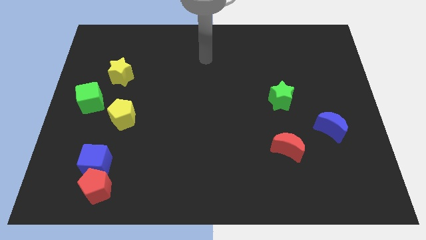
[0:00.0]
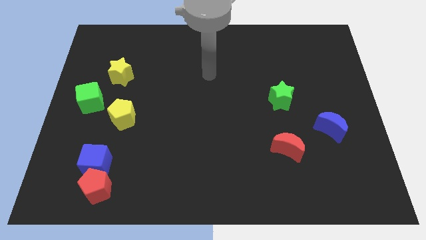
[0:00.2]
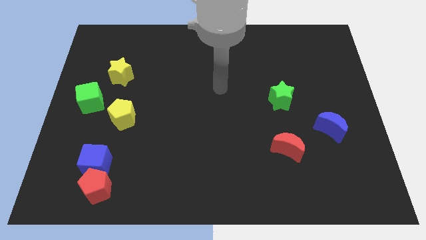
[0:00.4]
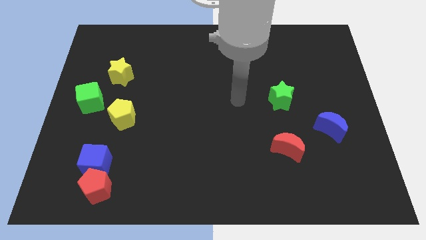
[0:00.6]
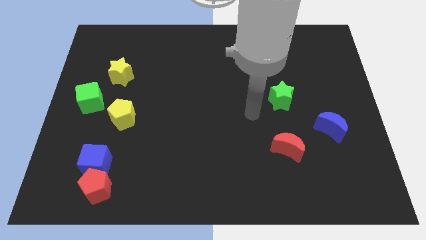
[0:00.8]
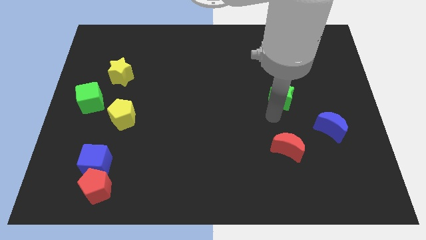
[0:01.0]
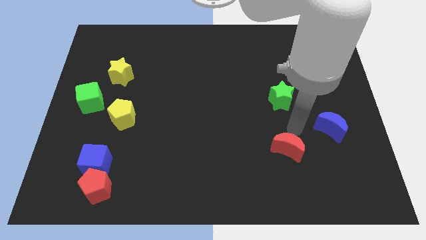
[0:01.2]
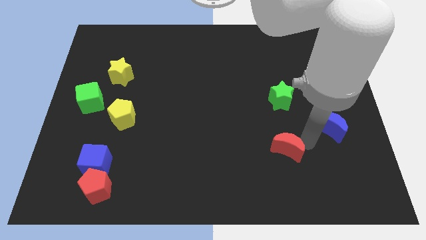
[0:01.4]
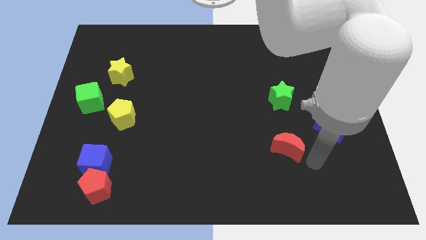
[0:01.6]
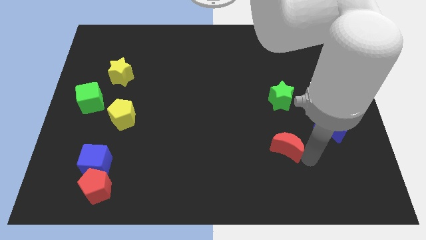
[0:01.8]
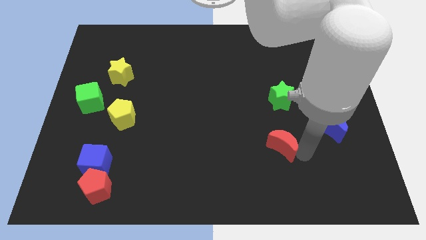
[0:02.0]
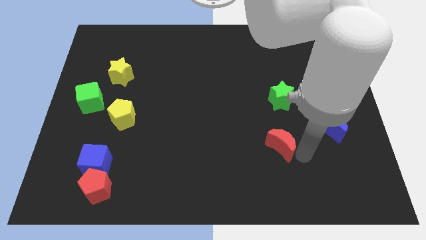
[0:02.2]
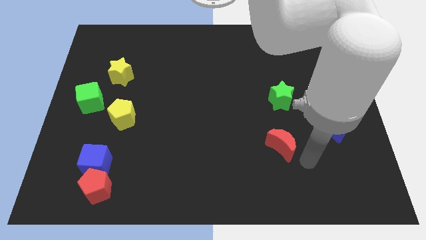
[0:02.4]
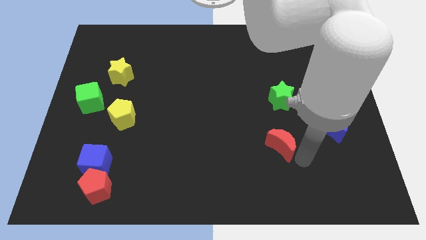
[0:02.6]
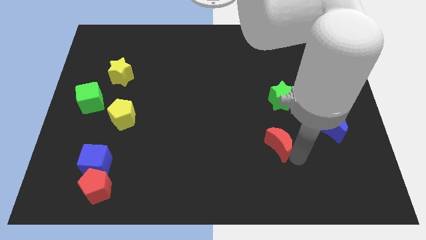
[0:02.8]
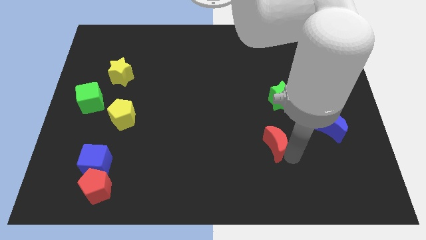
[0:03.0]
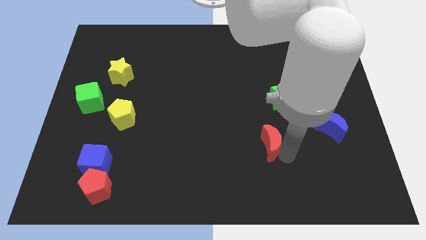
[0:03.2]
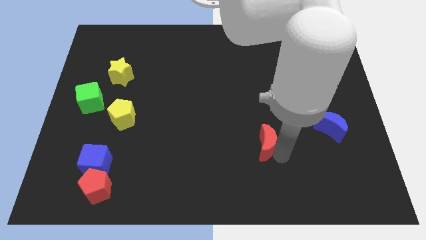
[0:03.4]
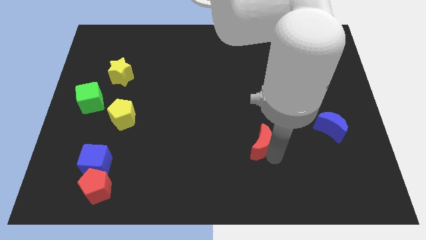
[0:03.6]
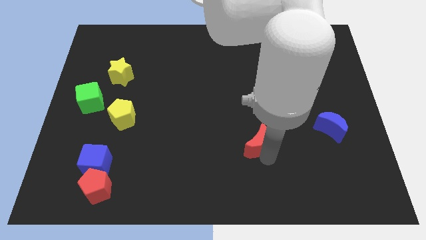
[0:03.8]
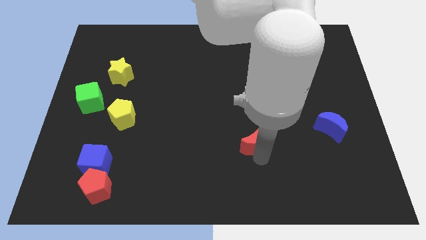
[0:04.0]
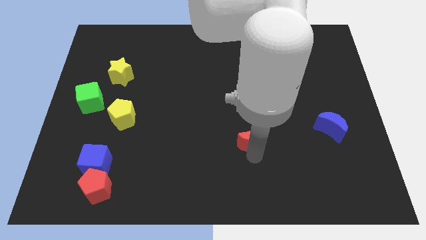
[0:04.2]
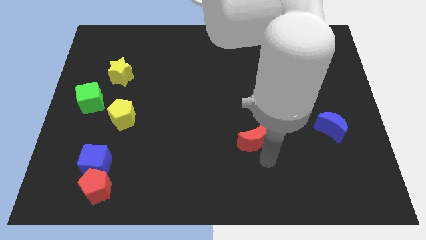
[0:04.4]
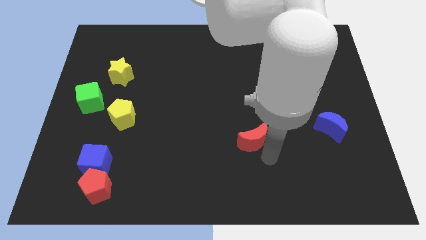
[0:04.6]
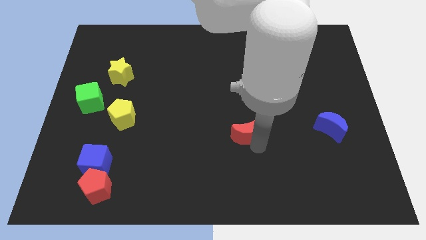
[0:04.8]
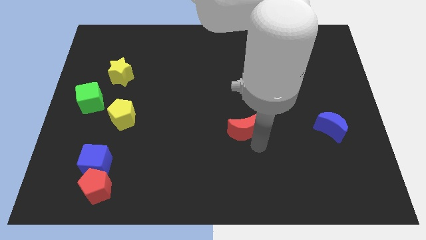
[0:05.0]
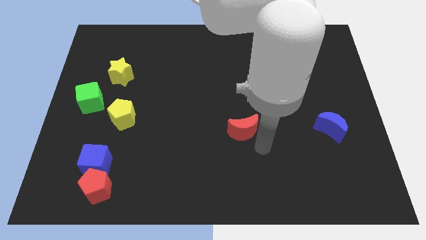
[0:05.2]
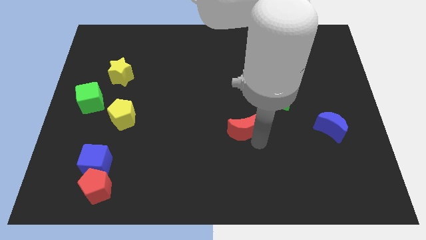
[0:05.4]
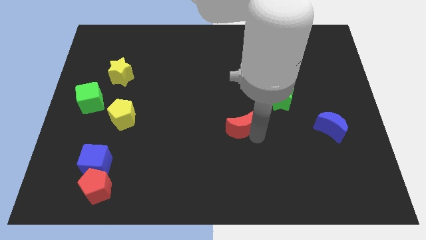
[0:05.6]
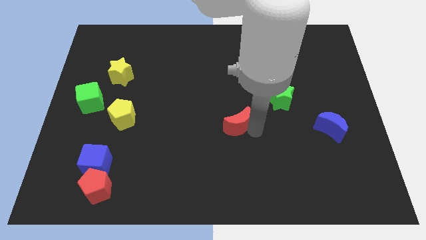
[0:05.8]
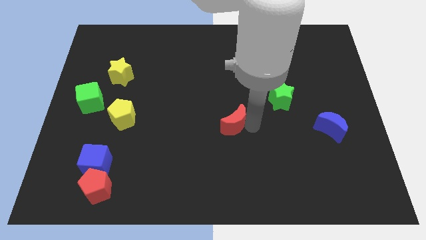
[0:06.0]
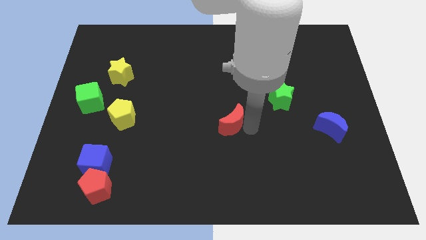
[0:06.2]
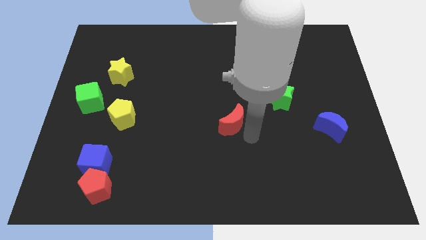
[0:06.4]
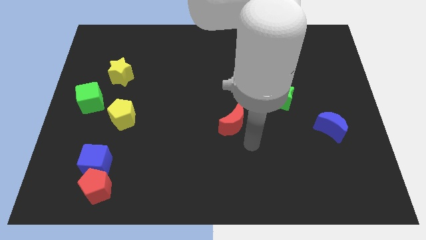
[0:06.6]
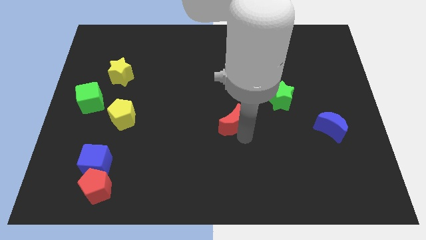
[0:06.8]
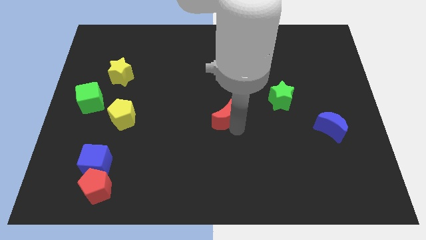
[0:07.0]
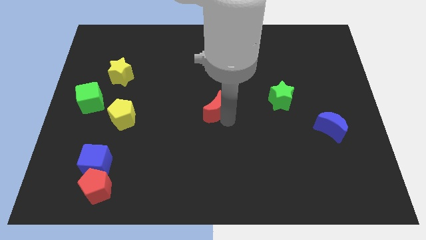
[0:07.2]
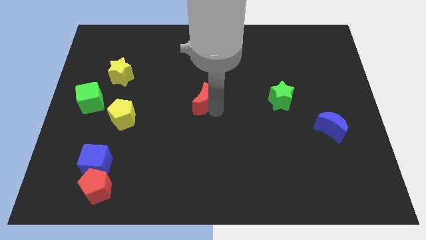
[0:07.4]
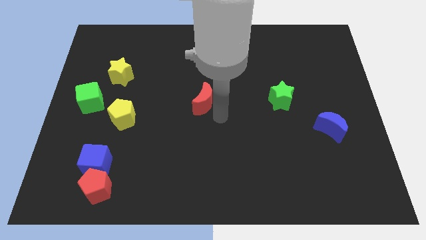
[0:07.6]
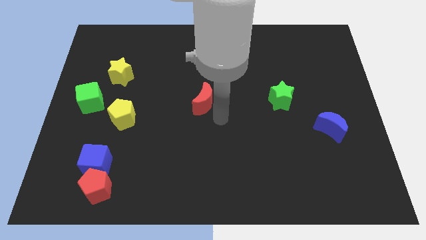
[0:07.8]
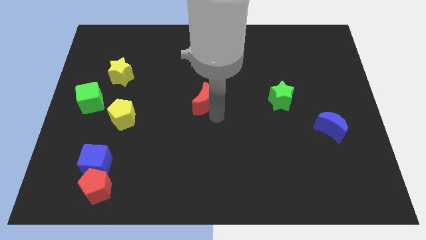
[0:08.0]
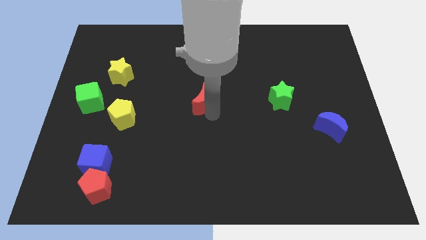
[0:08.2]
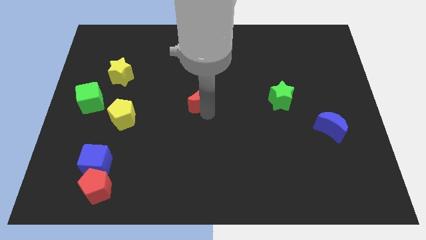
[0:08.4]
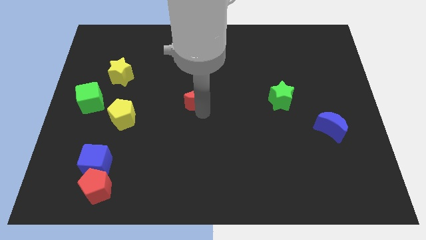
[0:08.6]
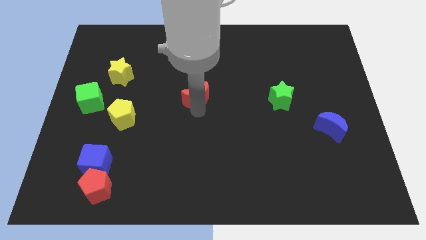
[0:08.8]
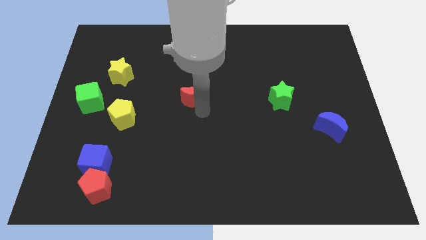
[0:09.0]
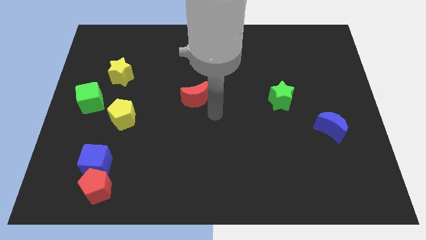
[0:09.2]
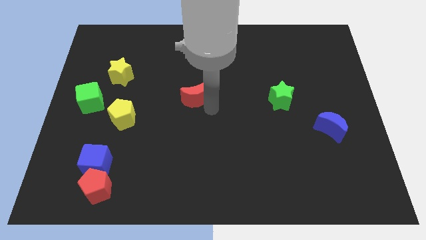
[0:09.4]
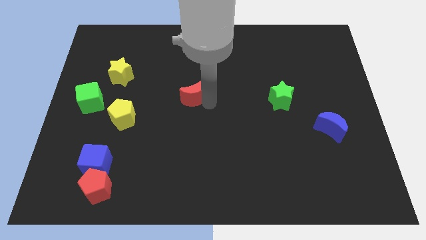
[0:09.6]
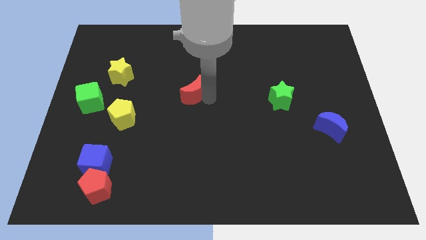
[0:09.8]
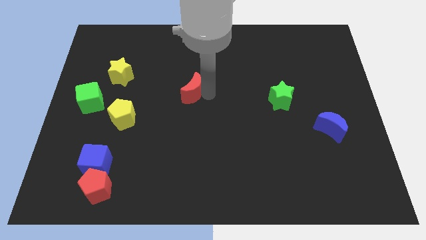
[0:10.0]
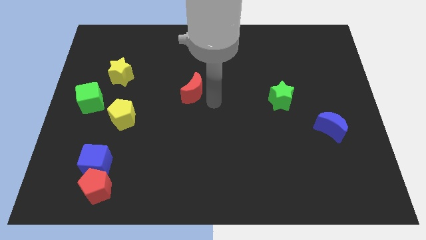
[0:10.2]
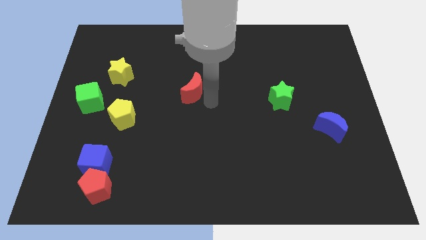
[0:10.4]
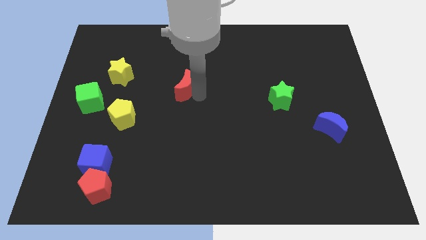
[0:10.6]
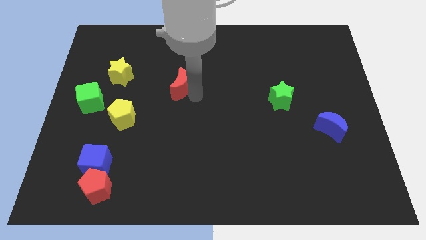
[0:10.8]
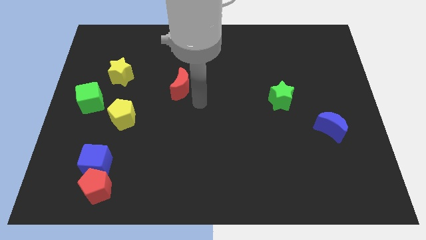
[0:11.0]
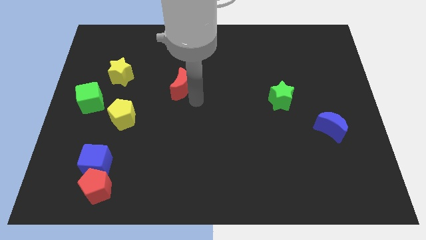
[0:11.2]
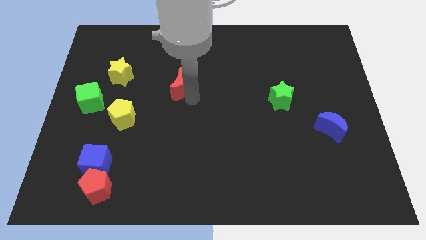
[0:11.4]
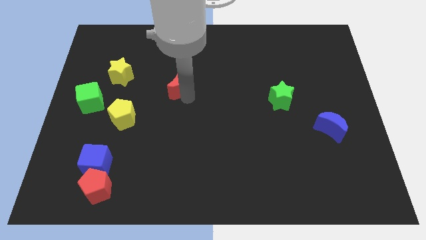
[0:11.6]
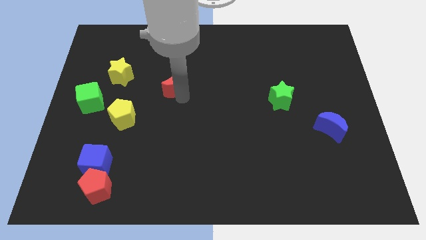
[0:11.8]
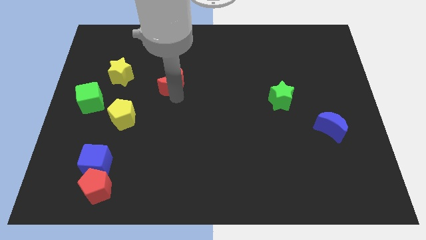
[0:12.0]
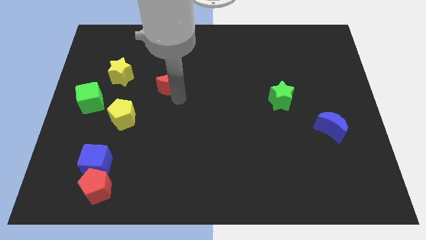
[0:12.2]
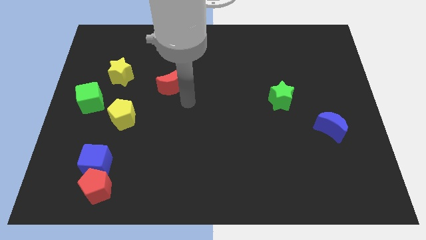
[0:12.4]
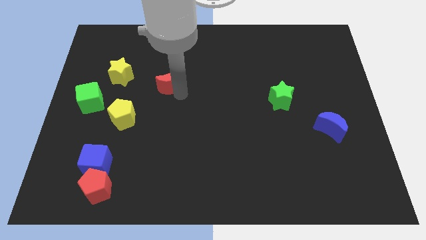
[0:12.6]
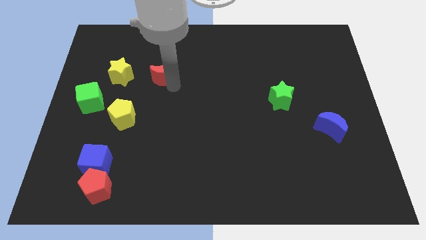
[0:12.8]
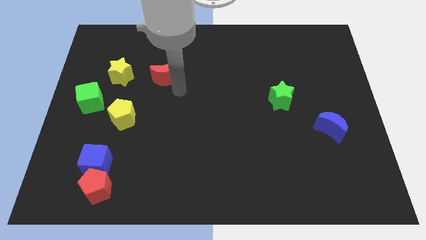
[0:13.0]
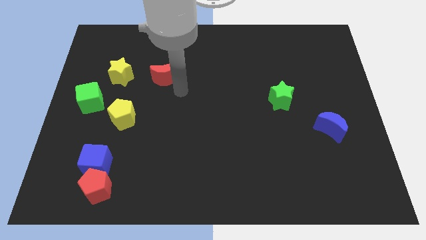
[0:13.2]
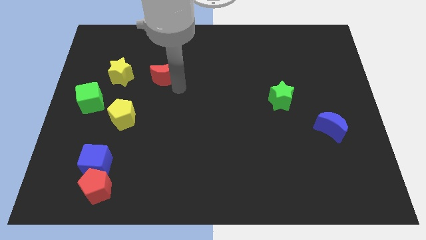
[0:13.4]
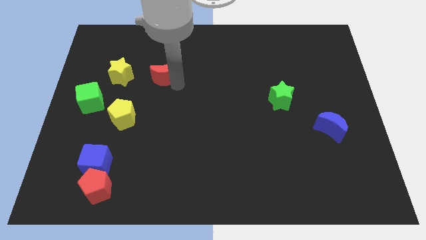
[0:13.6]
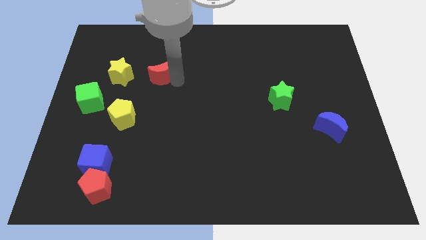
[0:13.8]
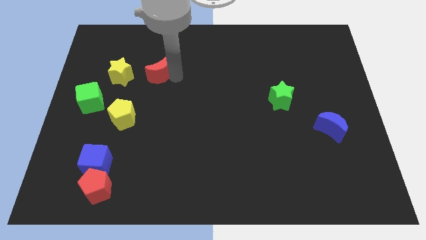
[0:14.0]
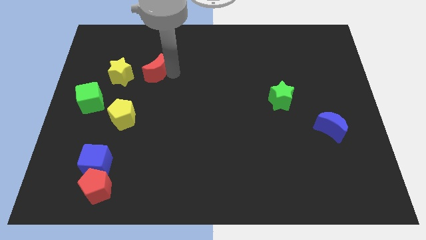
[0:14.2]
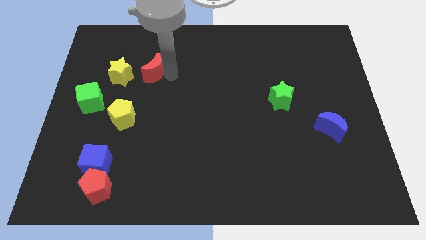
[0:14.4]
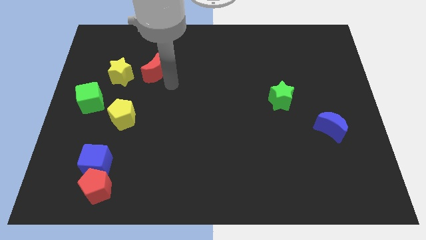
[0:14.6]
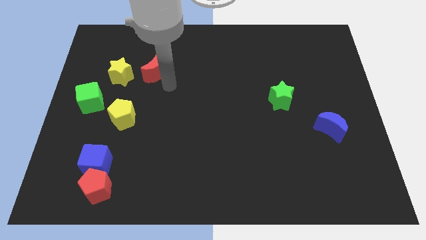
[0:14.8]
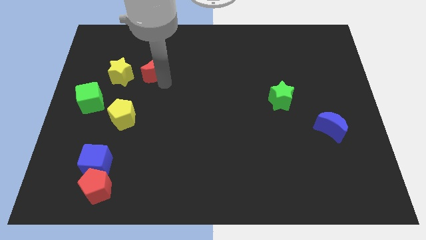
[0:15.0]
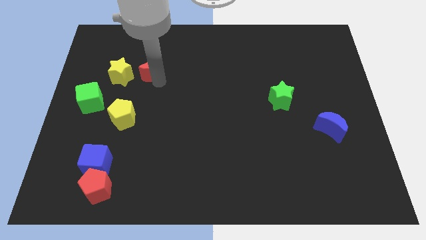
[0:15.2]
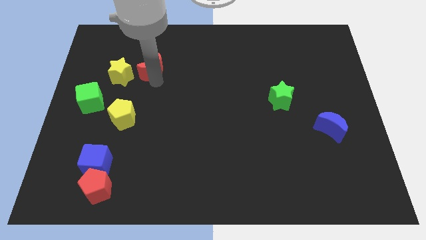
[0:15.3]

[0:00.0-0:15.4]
put the red moon to the top right of the yellow star
